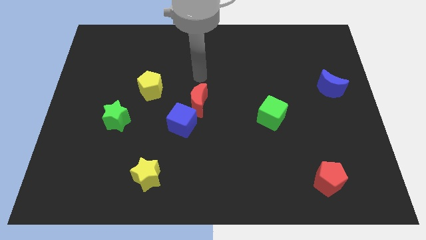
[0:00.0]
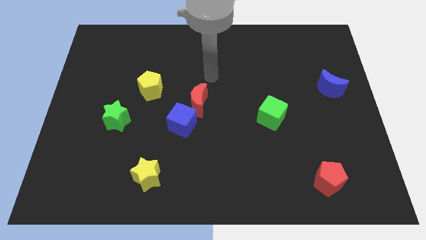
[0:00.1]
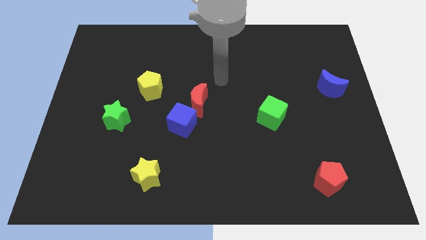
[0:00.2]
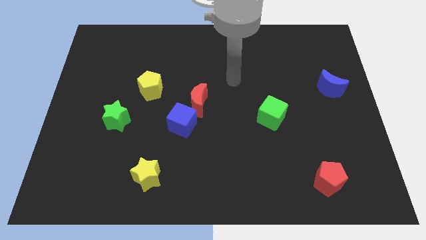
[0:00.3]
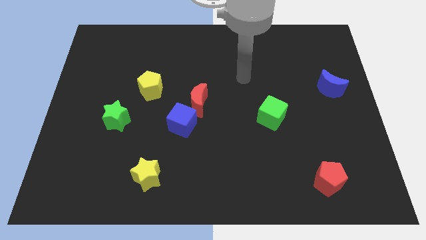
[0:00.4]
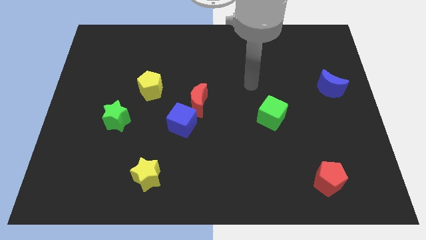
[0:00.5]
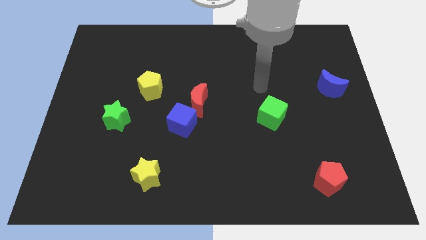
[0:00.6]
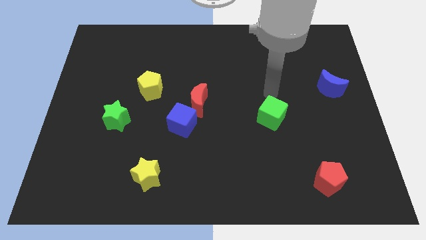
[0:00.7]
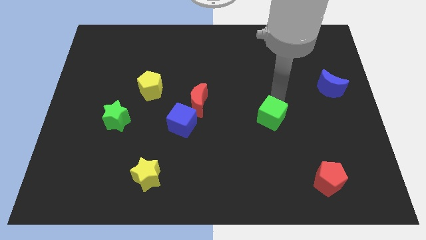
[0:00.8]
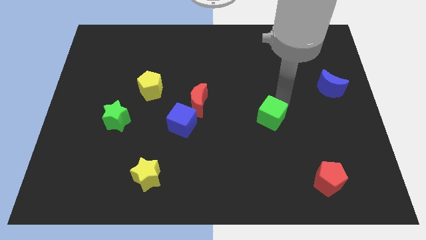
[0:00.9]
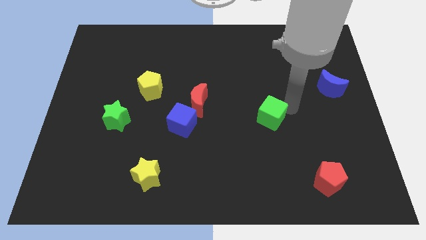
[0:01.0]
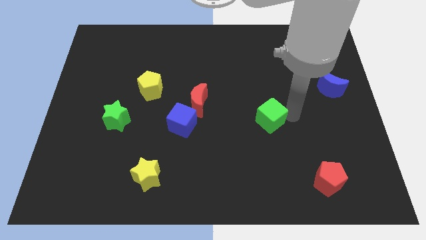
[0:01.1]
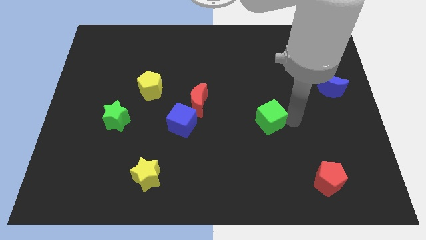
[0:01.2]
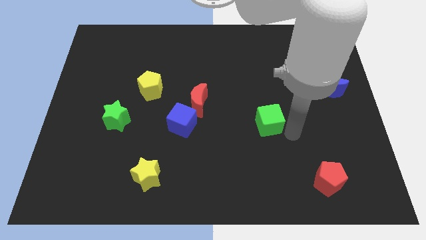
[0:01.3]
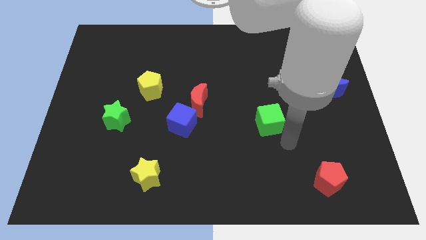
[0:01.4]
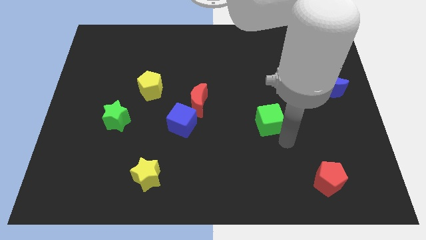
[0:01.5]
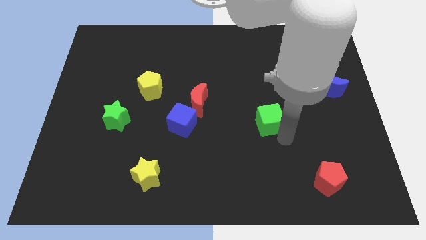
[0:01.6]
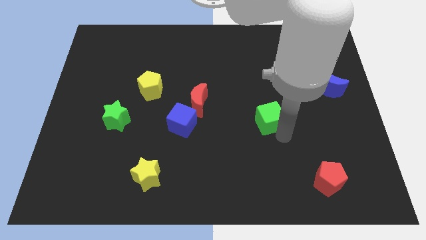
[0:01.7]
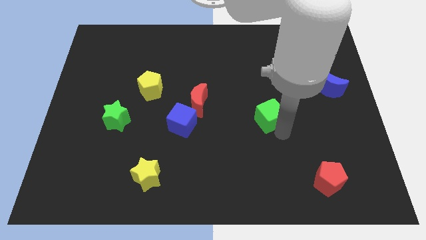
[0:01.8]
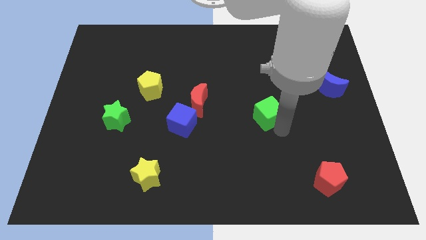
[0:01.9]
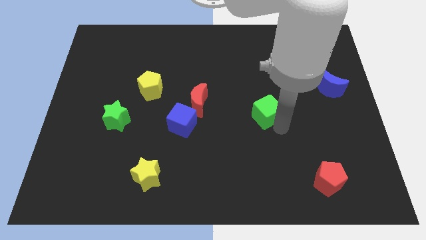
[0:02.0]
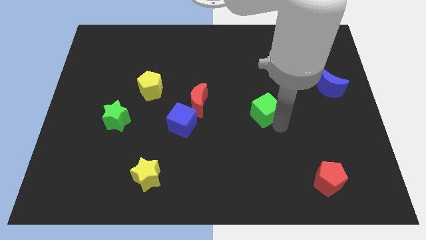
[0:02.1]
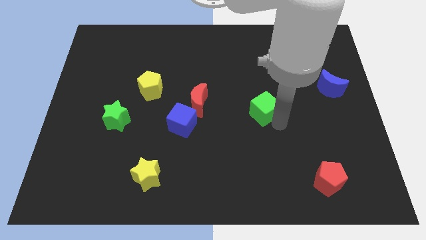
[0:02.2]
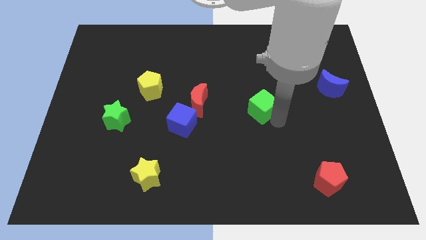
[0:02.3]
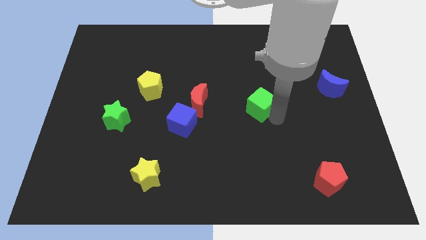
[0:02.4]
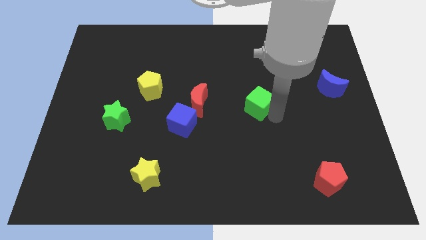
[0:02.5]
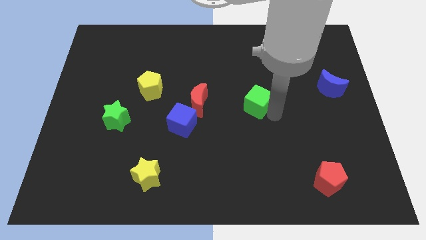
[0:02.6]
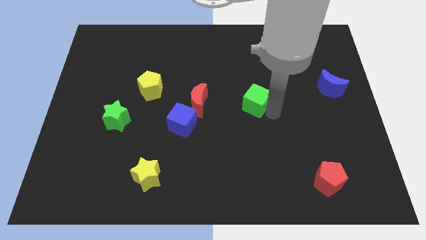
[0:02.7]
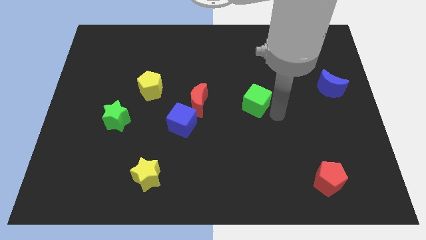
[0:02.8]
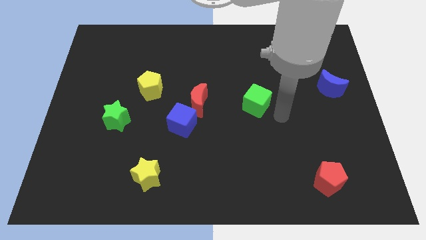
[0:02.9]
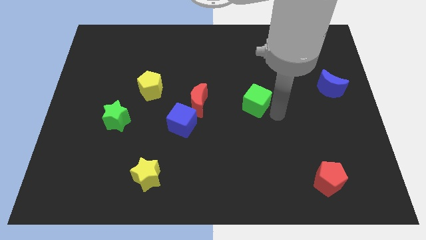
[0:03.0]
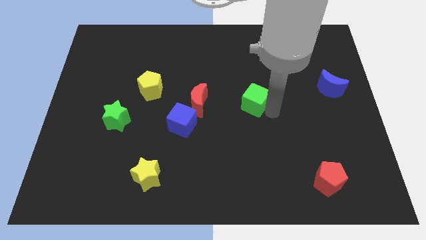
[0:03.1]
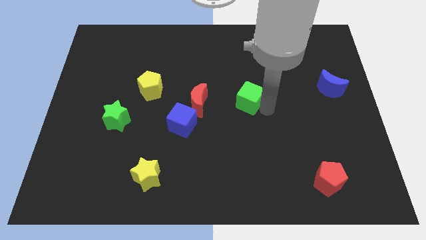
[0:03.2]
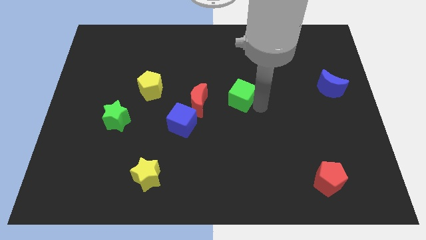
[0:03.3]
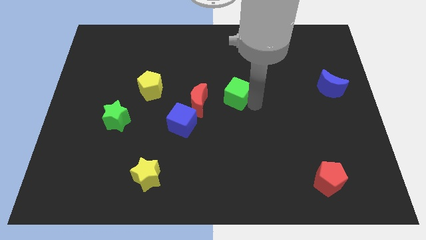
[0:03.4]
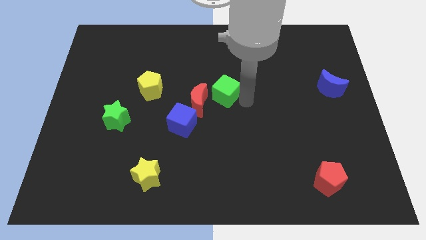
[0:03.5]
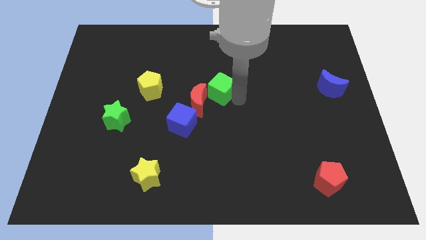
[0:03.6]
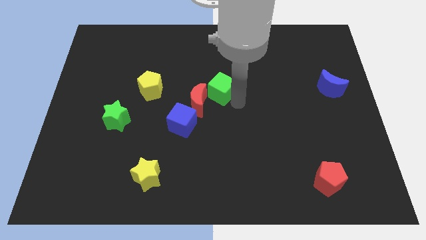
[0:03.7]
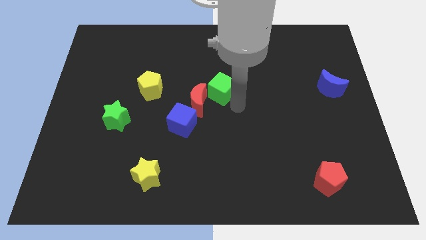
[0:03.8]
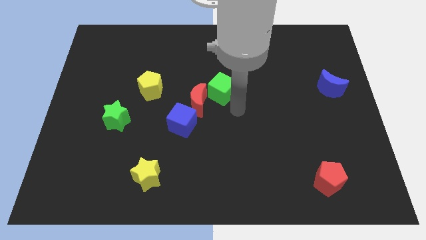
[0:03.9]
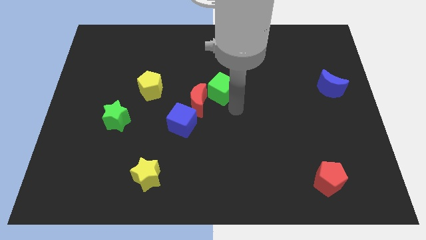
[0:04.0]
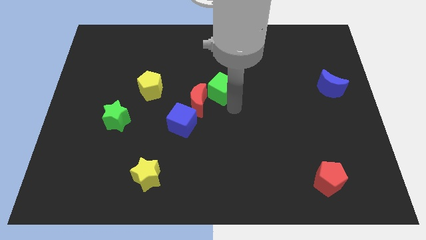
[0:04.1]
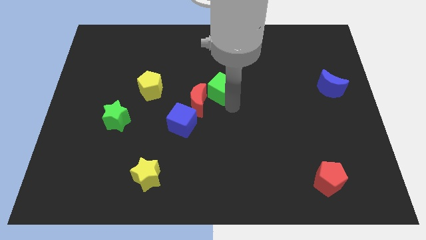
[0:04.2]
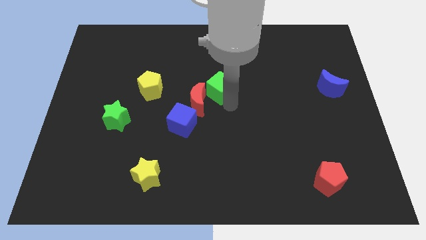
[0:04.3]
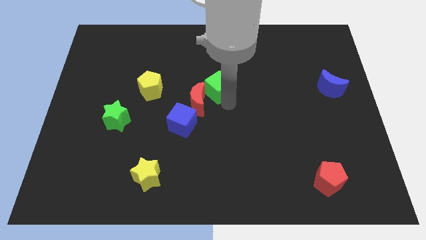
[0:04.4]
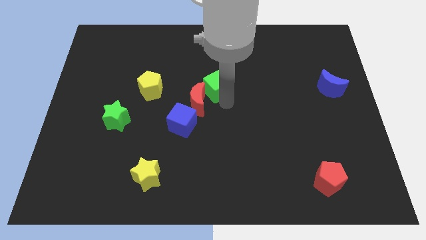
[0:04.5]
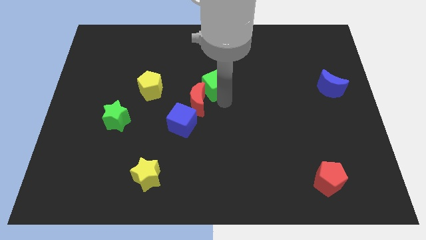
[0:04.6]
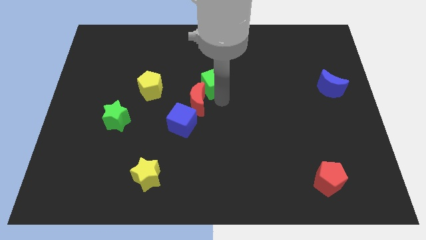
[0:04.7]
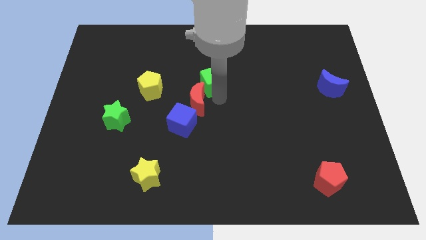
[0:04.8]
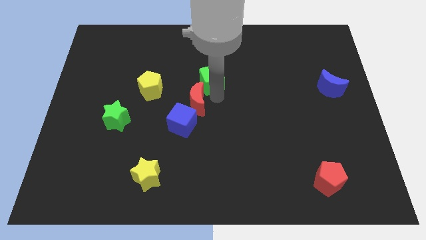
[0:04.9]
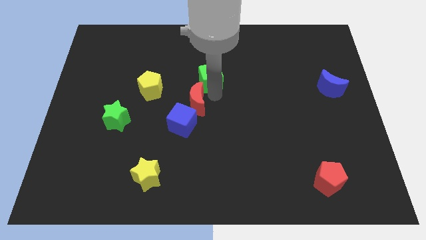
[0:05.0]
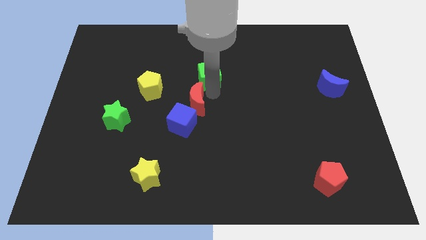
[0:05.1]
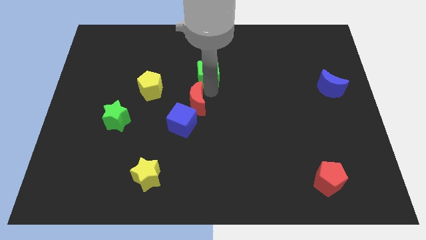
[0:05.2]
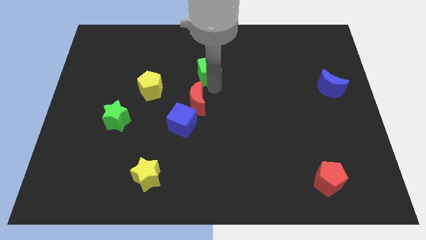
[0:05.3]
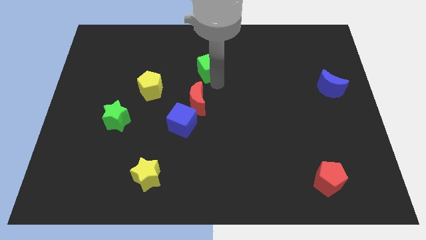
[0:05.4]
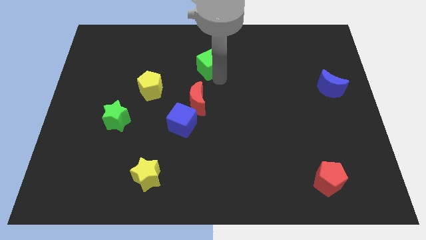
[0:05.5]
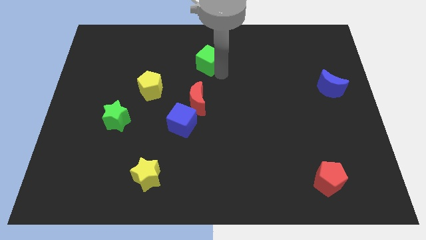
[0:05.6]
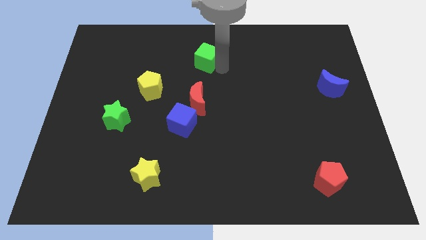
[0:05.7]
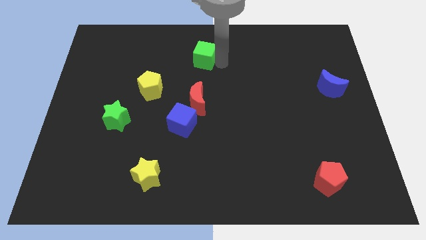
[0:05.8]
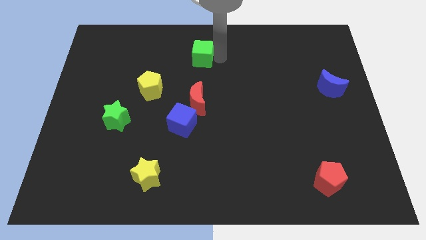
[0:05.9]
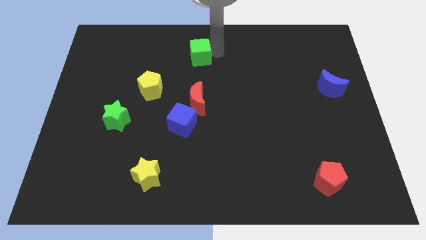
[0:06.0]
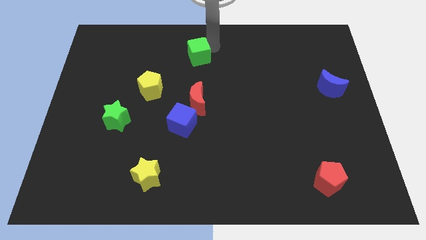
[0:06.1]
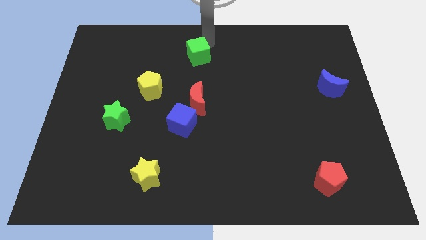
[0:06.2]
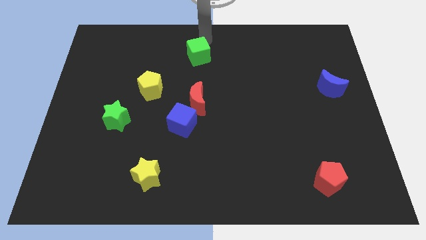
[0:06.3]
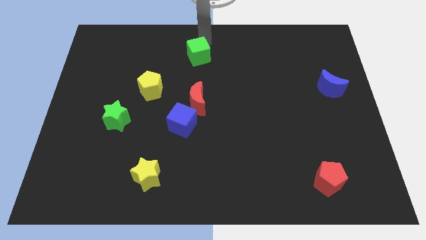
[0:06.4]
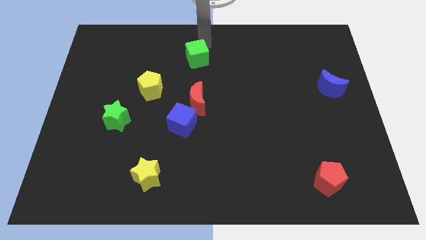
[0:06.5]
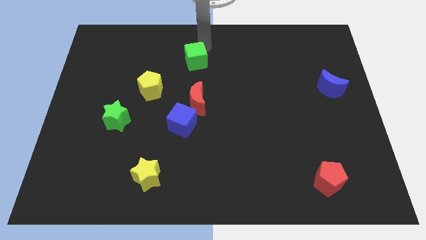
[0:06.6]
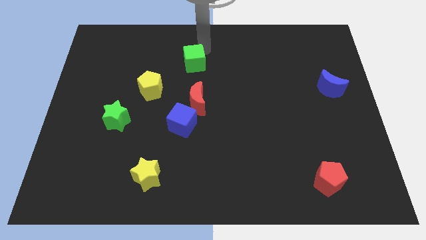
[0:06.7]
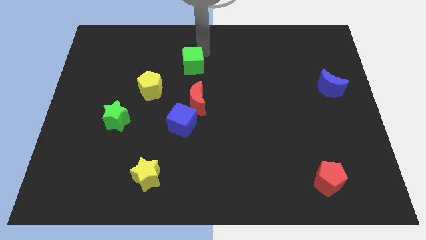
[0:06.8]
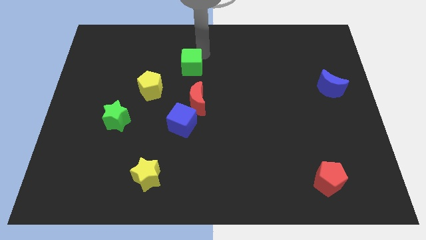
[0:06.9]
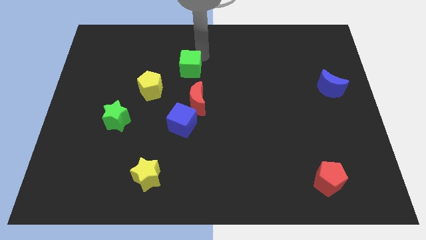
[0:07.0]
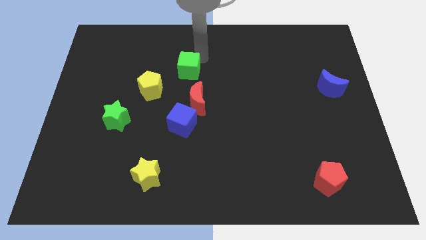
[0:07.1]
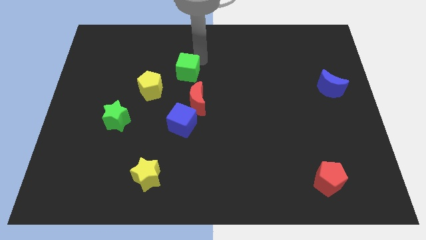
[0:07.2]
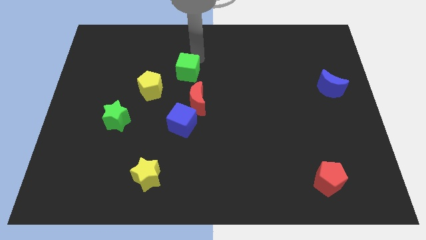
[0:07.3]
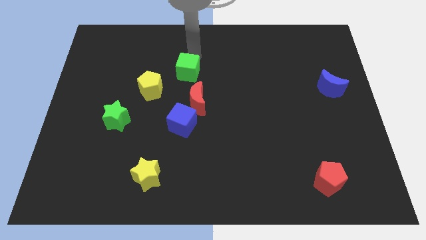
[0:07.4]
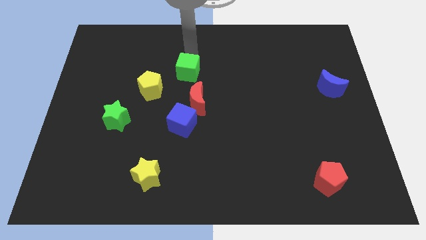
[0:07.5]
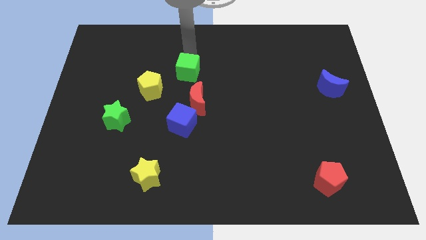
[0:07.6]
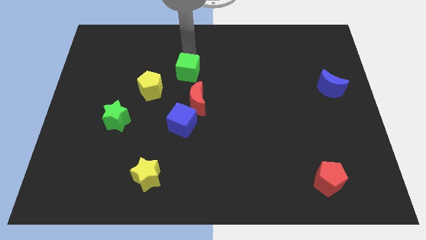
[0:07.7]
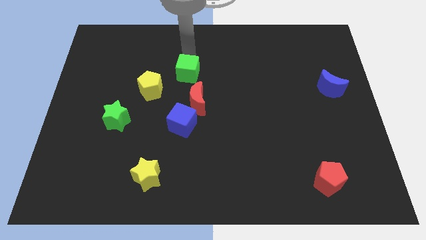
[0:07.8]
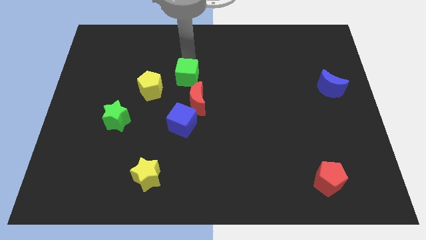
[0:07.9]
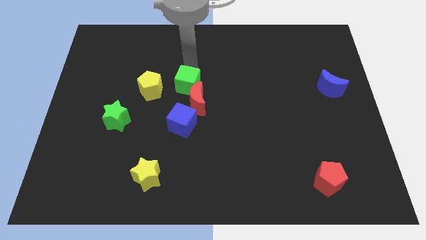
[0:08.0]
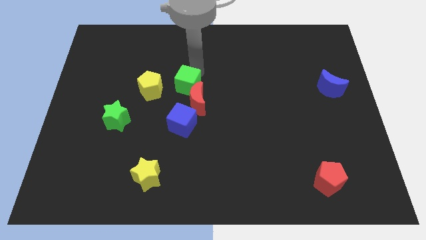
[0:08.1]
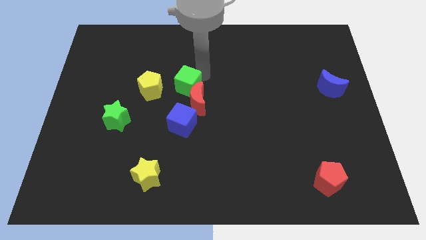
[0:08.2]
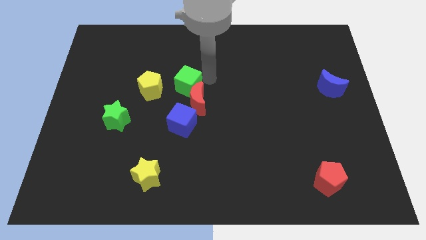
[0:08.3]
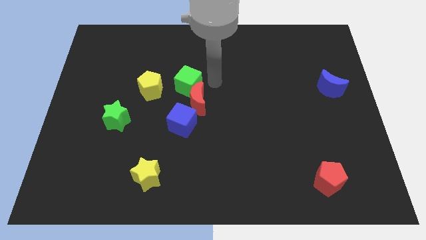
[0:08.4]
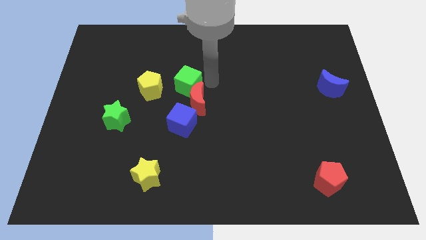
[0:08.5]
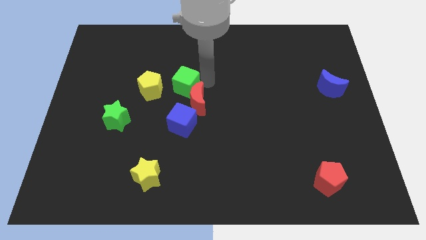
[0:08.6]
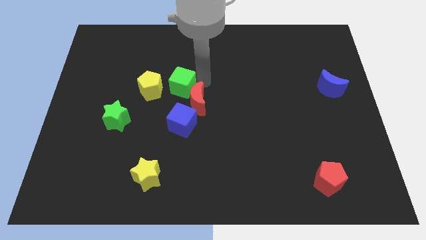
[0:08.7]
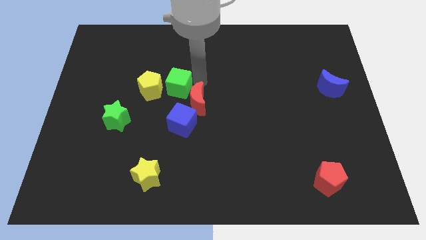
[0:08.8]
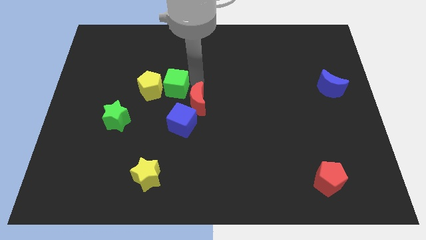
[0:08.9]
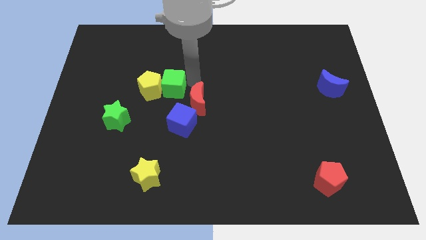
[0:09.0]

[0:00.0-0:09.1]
move the green cube close to the yellow pentagon
